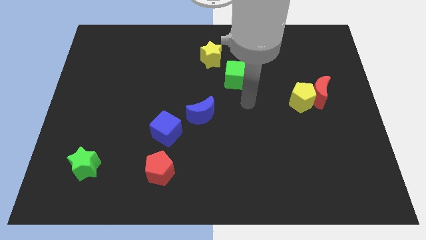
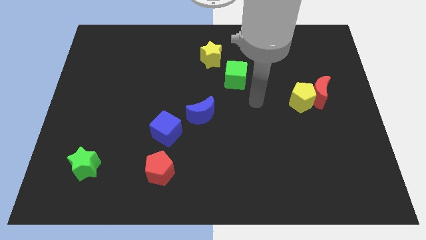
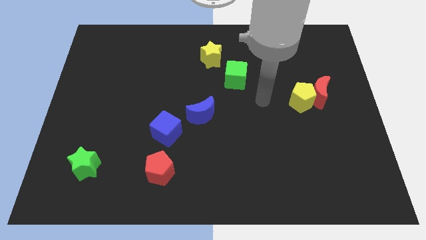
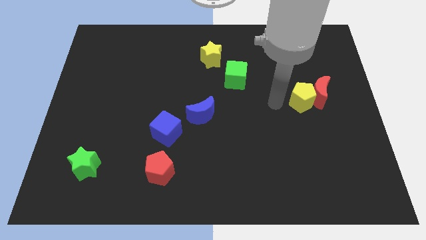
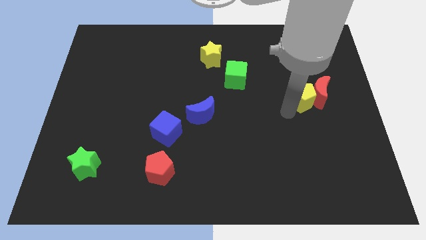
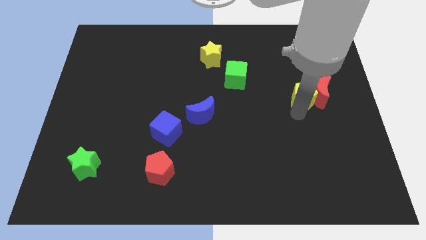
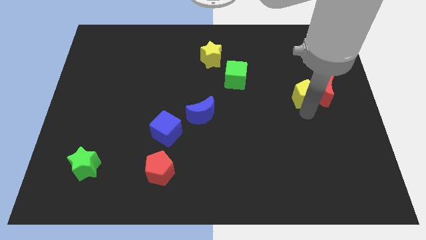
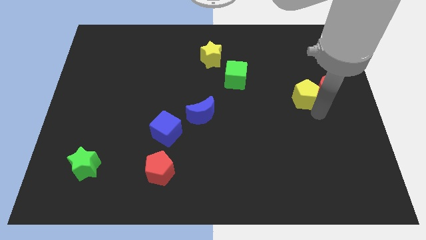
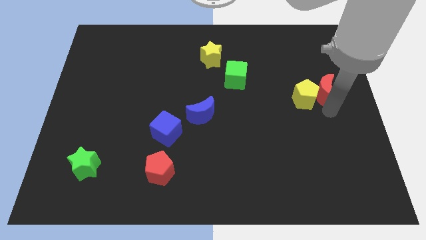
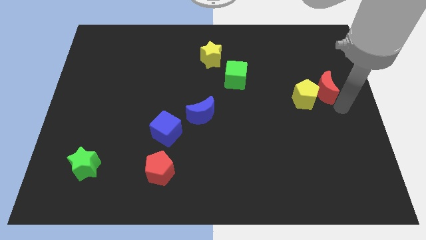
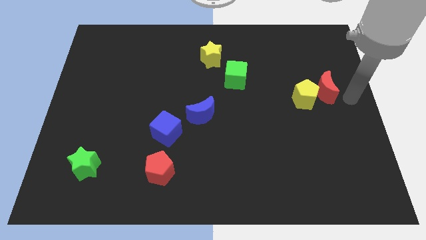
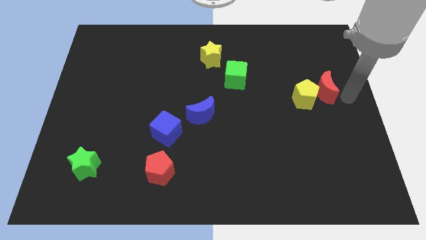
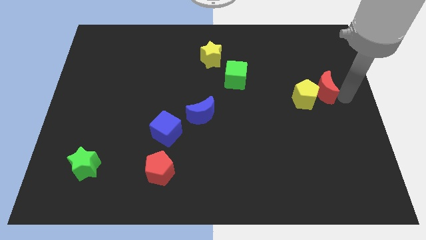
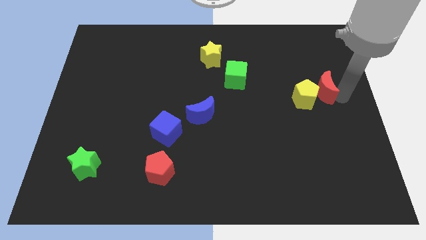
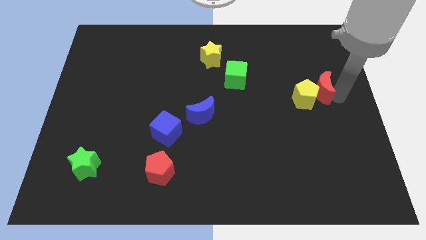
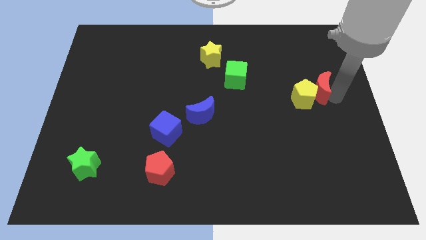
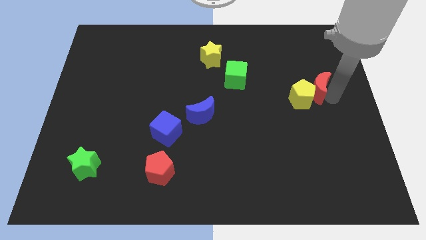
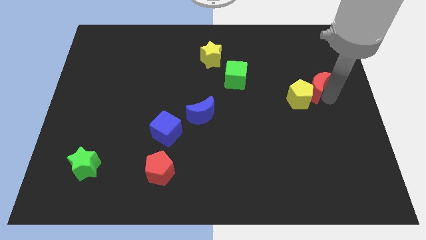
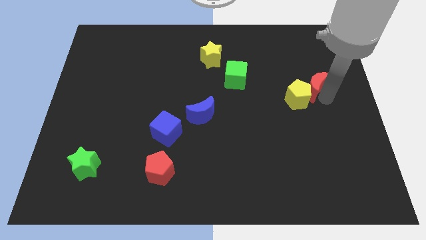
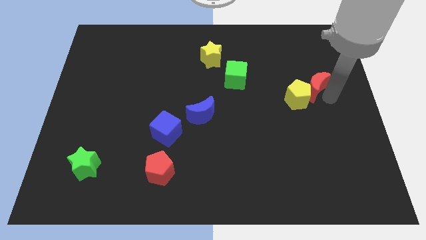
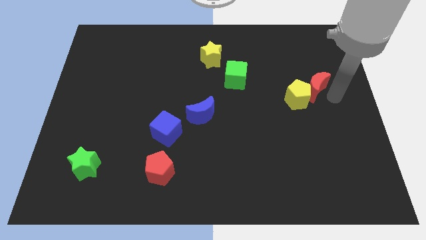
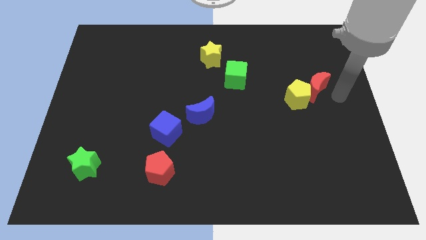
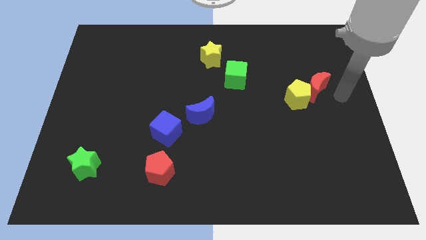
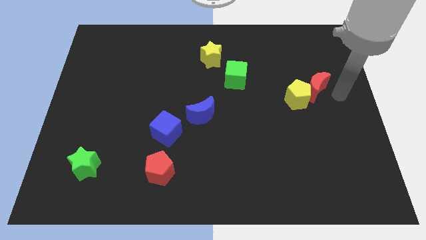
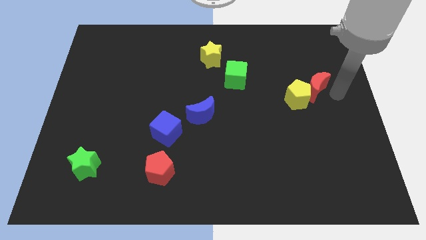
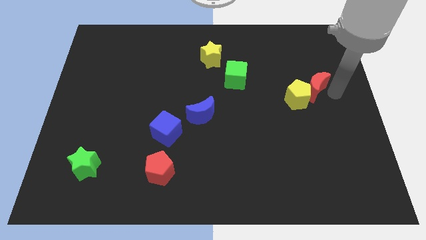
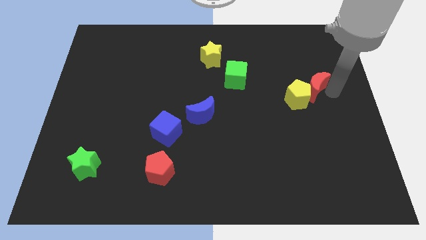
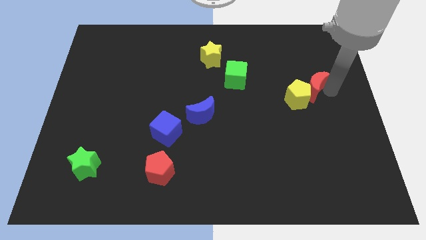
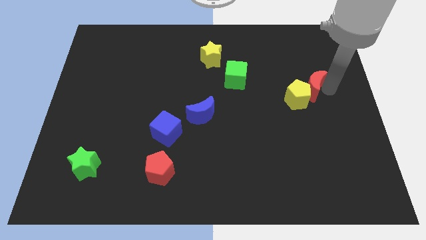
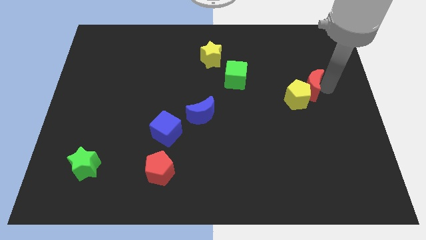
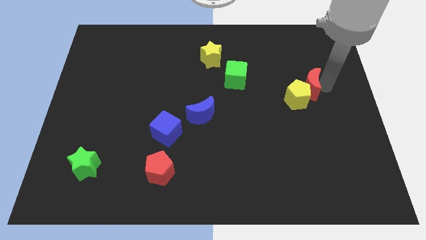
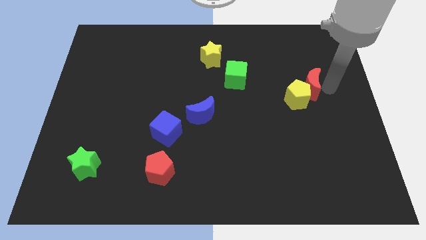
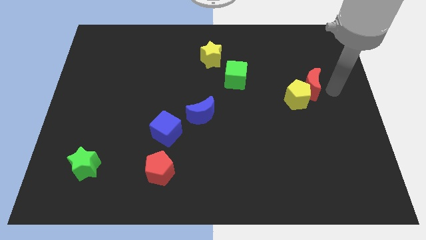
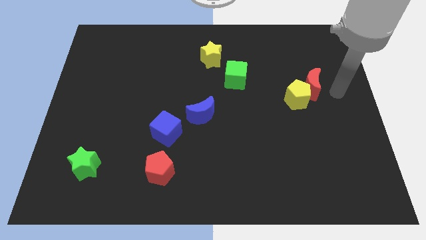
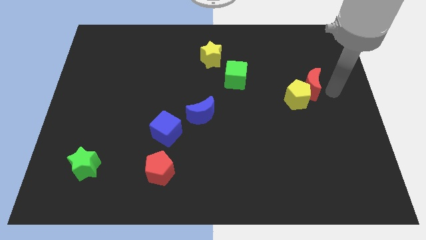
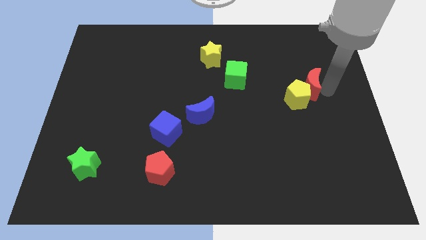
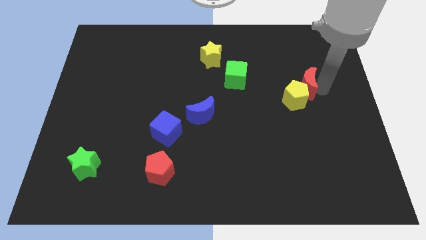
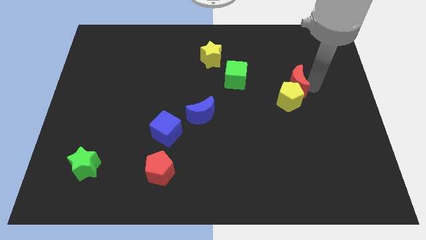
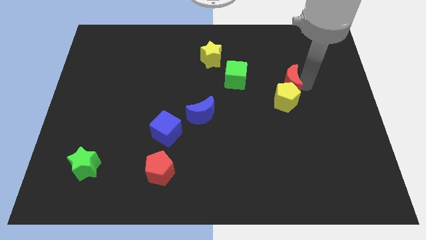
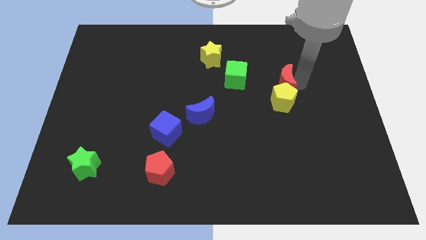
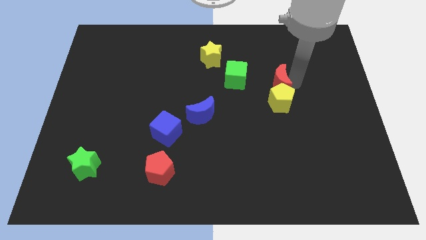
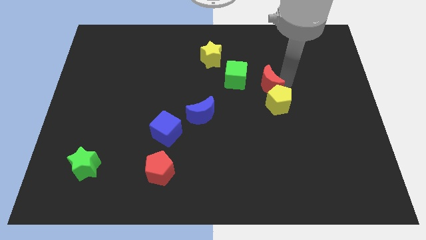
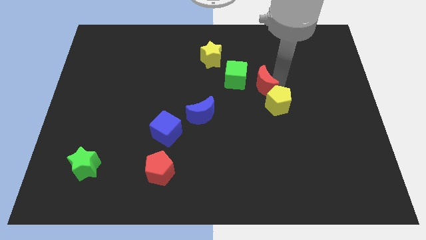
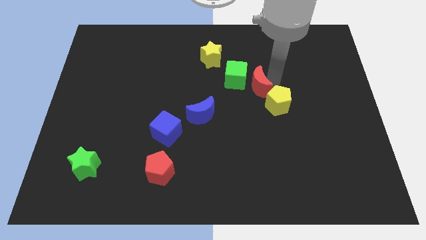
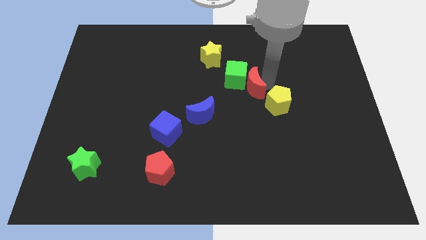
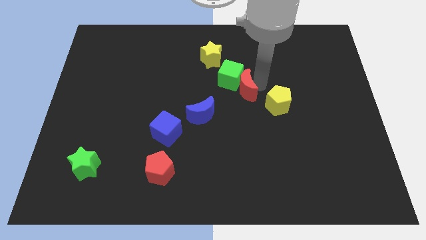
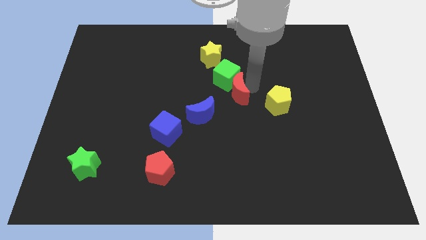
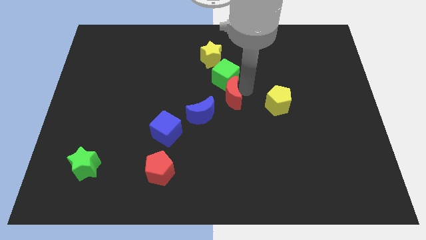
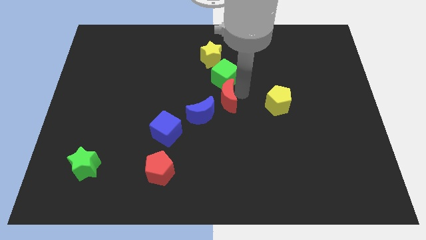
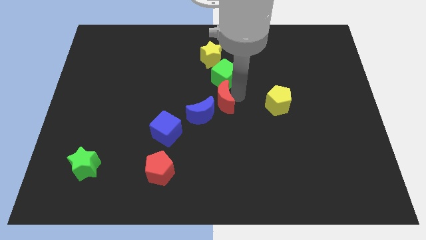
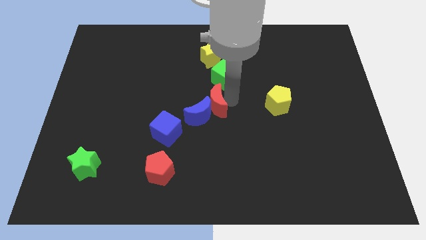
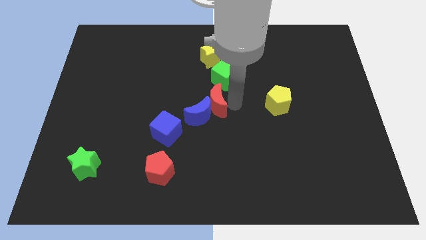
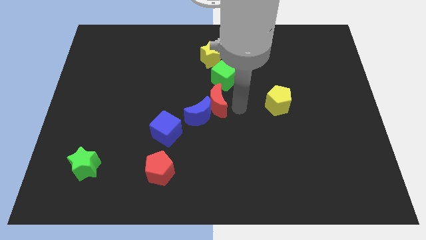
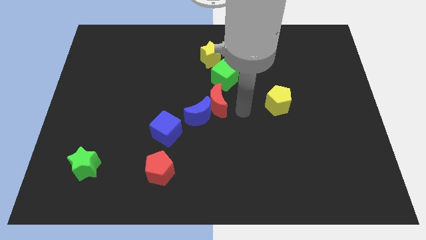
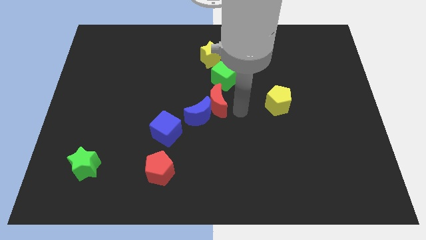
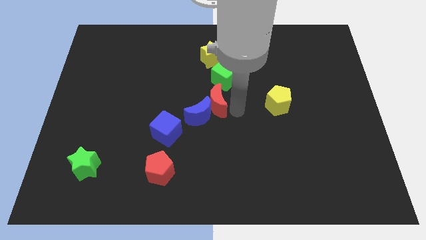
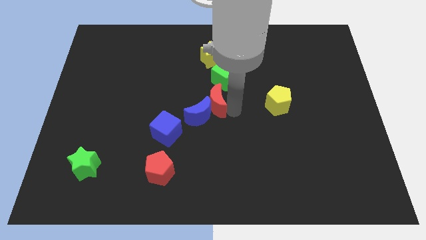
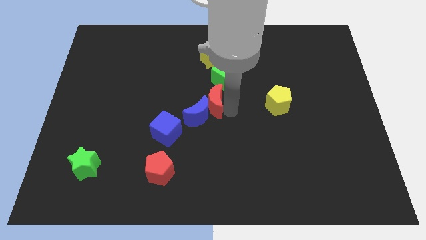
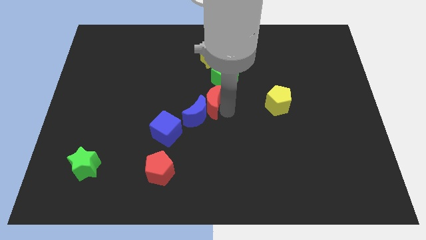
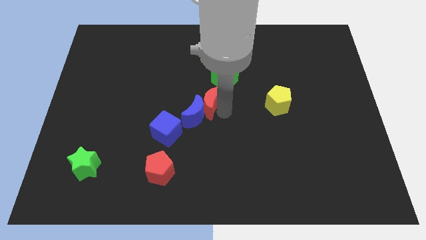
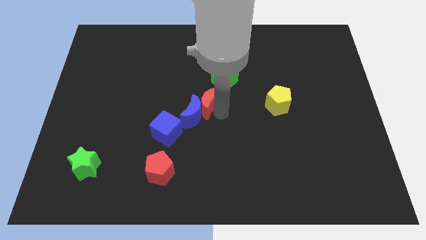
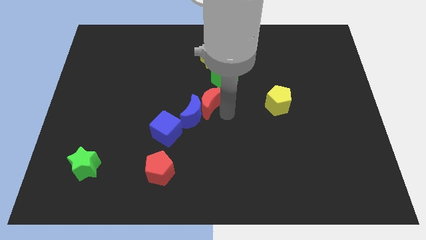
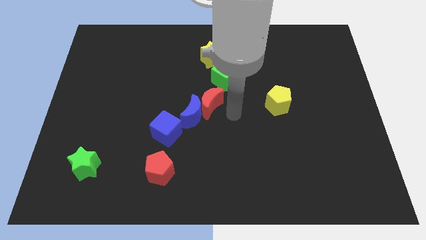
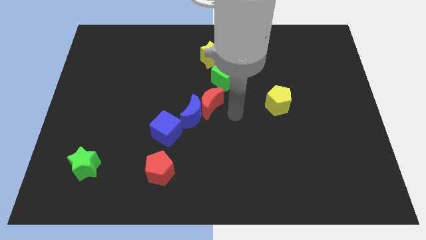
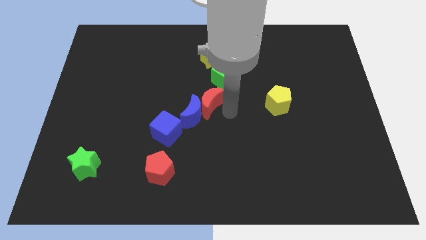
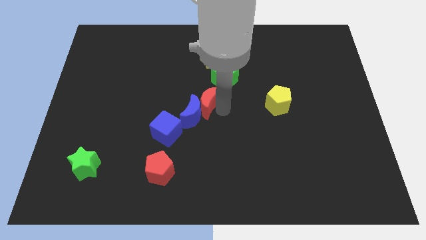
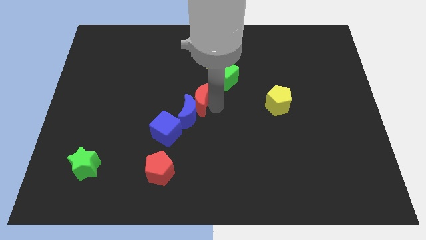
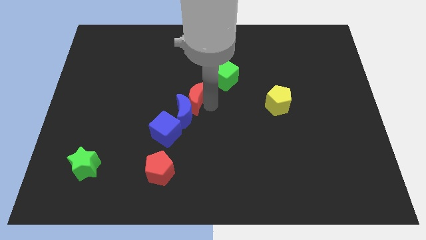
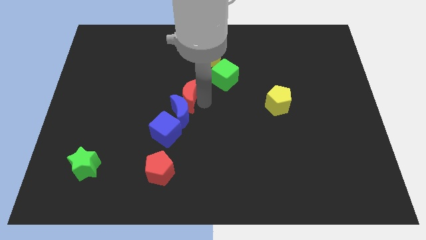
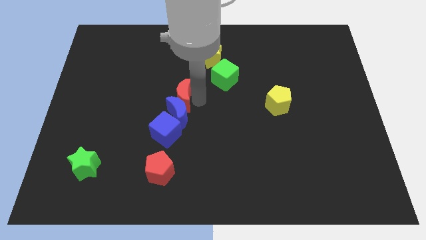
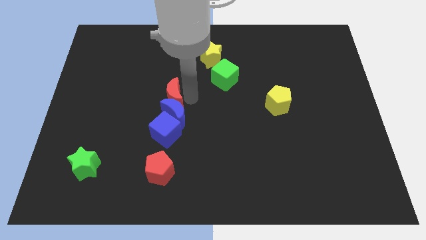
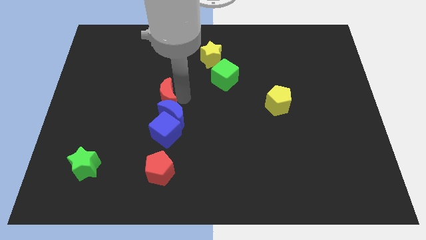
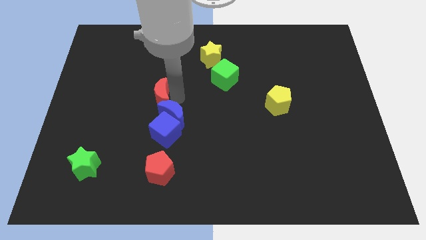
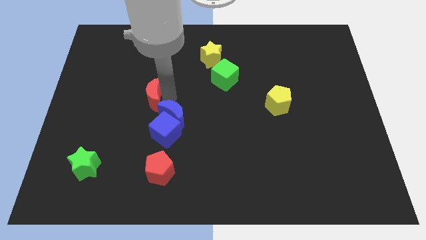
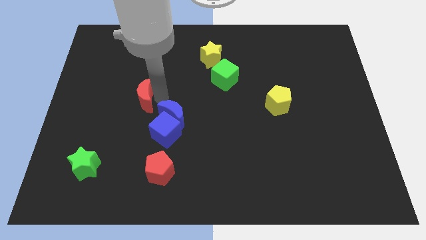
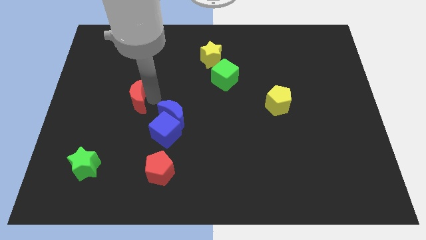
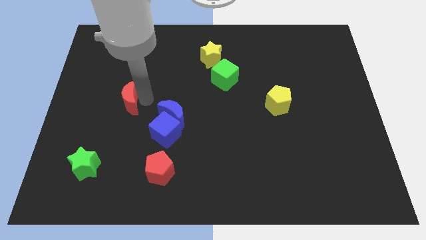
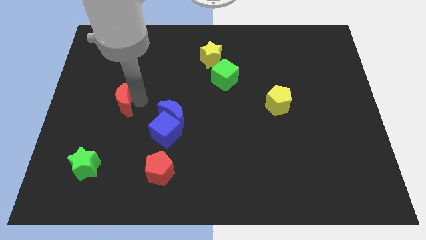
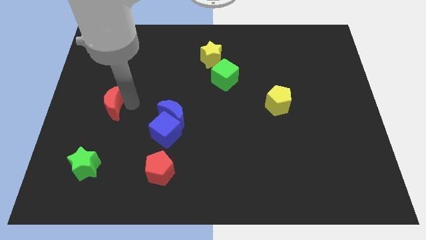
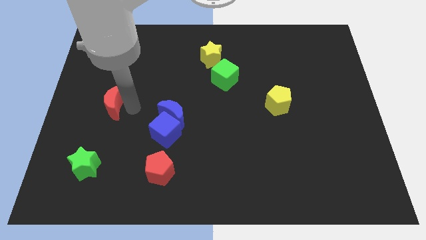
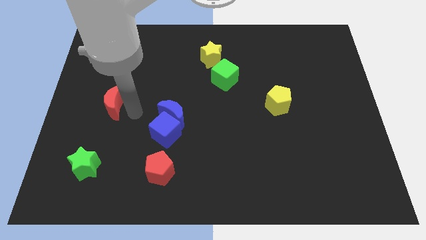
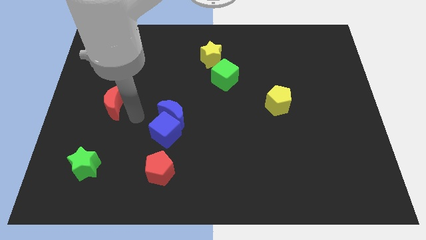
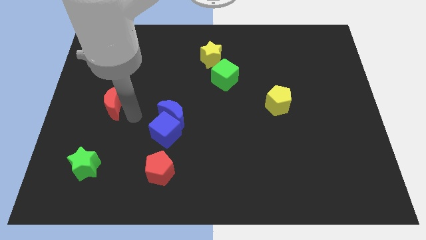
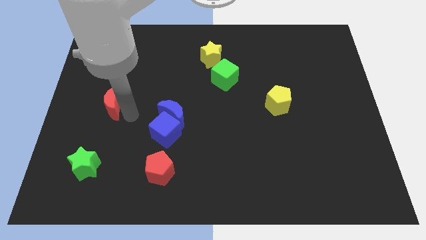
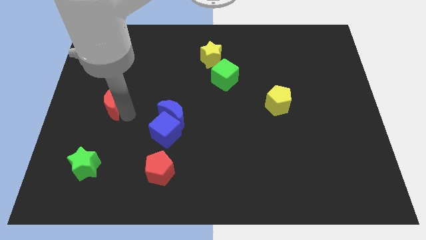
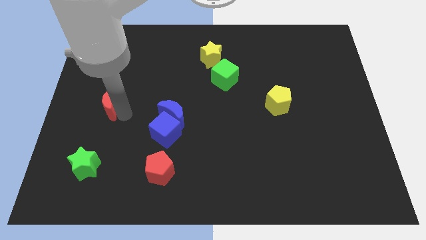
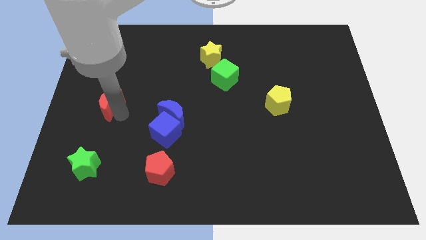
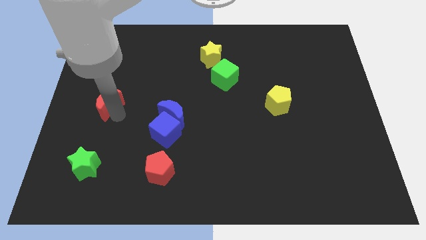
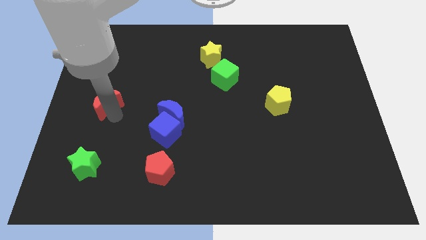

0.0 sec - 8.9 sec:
push the red moon to the center left
